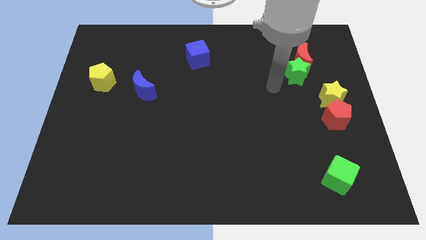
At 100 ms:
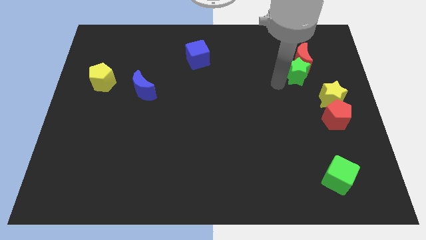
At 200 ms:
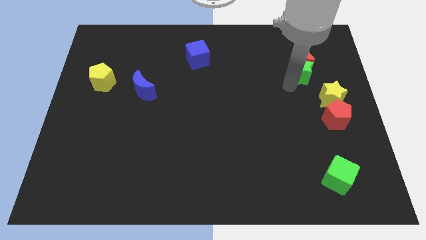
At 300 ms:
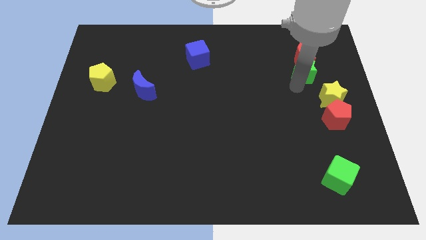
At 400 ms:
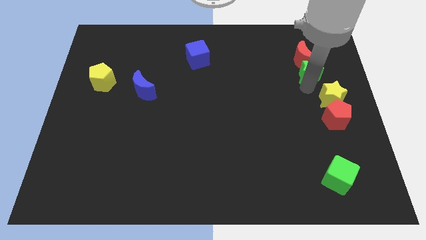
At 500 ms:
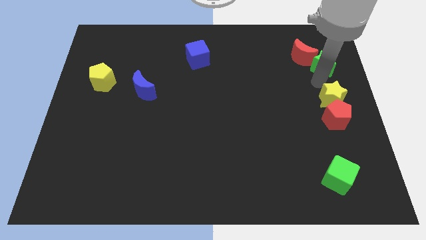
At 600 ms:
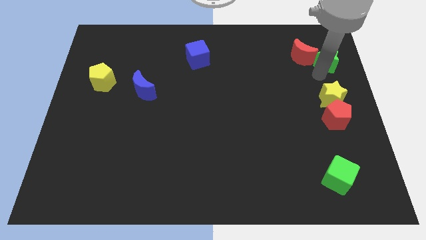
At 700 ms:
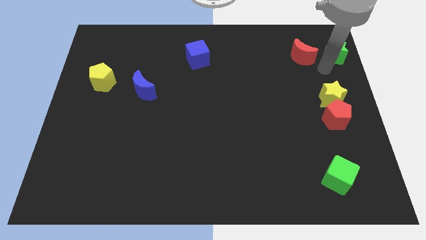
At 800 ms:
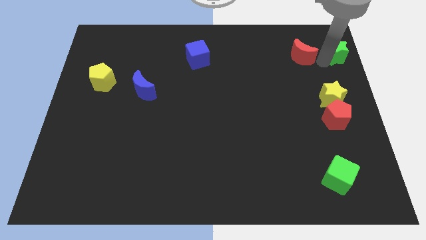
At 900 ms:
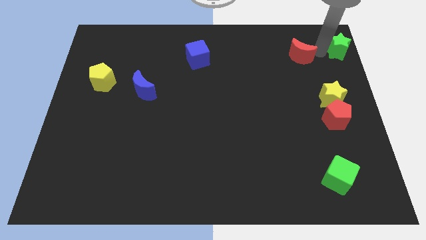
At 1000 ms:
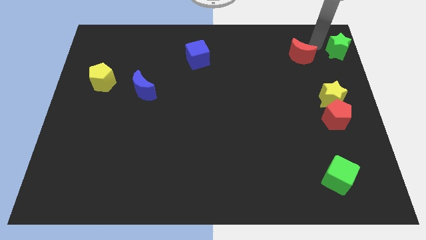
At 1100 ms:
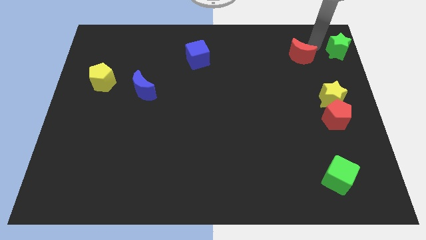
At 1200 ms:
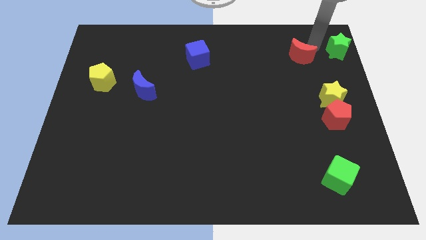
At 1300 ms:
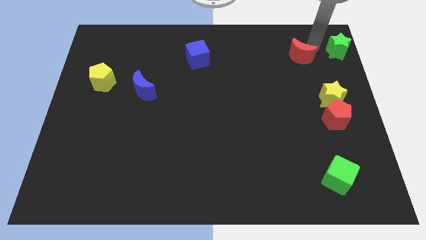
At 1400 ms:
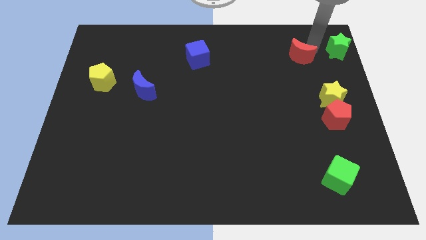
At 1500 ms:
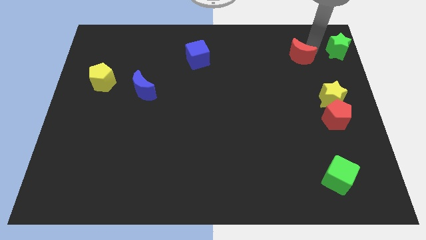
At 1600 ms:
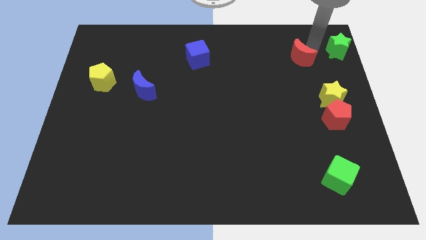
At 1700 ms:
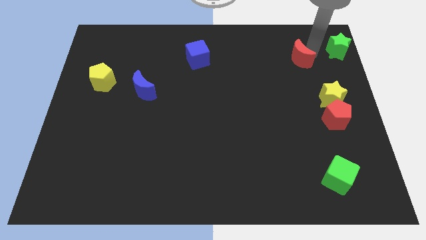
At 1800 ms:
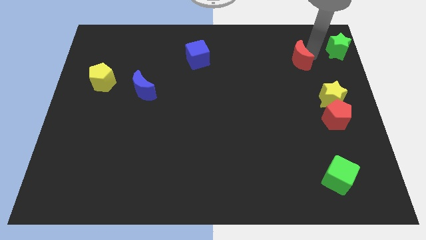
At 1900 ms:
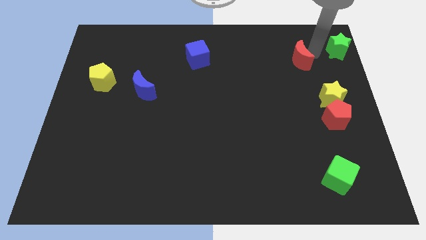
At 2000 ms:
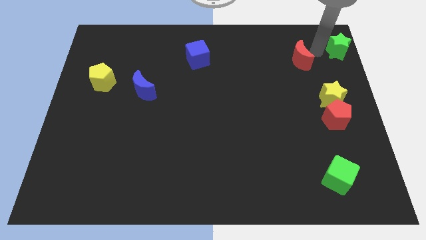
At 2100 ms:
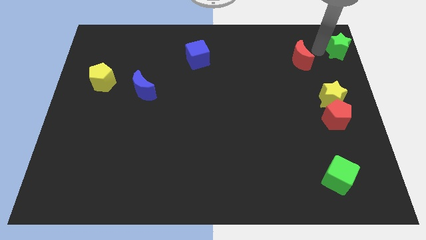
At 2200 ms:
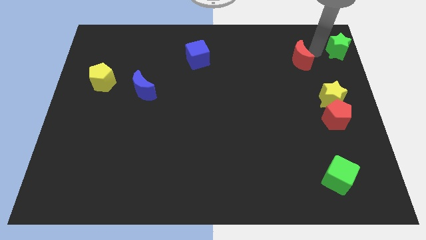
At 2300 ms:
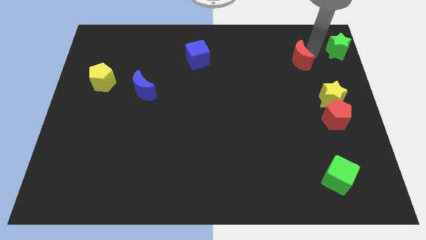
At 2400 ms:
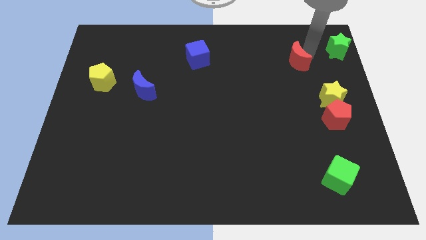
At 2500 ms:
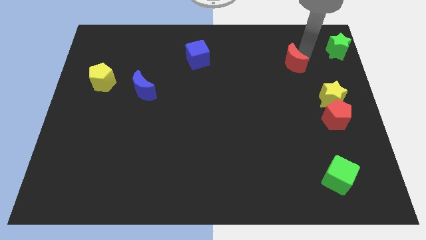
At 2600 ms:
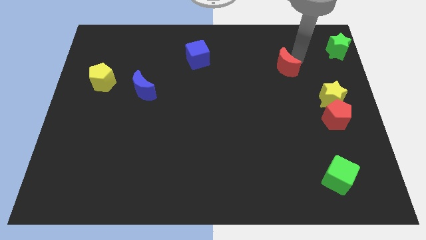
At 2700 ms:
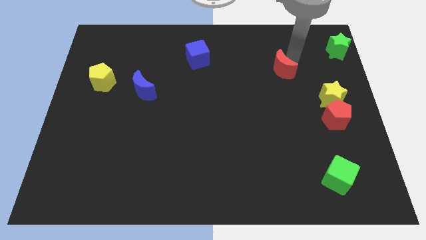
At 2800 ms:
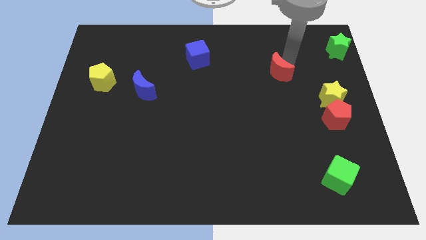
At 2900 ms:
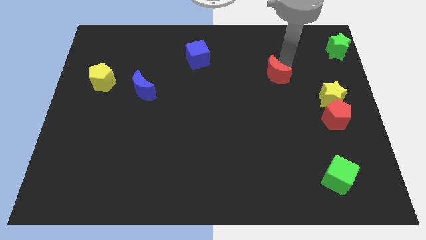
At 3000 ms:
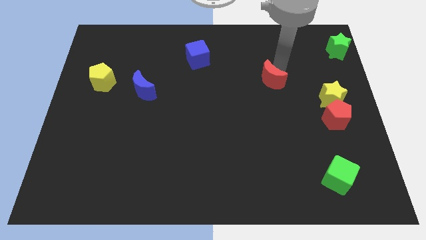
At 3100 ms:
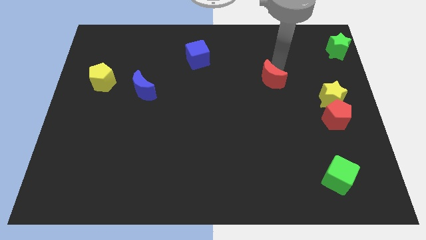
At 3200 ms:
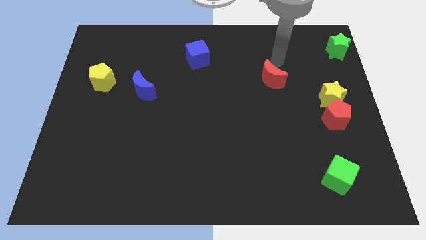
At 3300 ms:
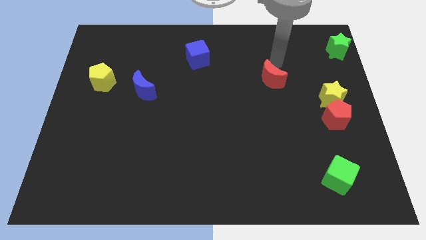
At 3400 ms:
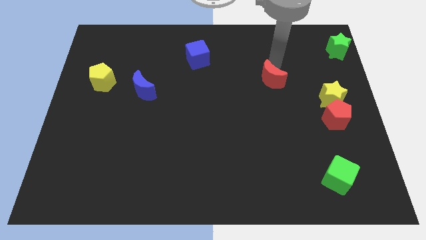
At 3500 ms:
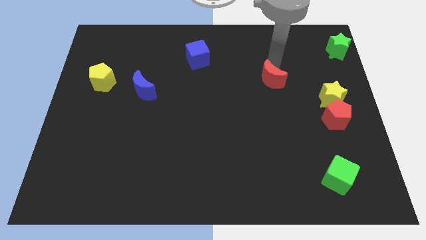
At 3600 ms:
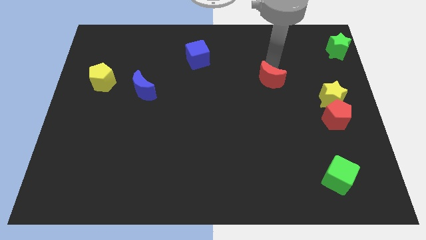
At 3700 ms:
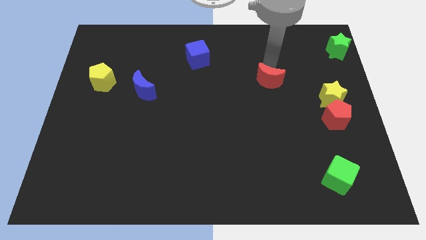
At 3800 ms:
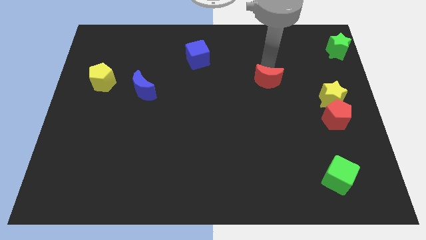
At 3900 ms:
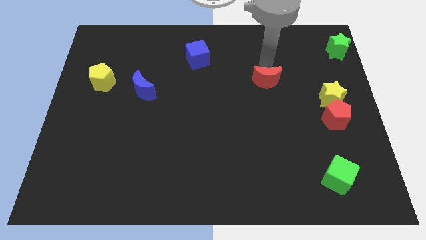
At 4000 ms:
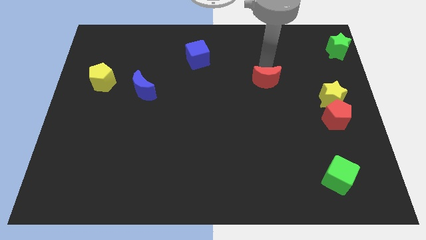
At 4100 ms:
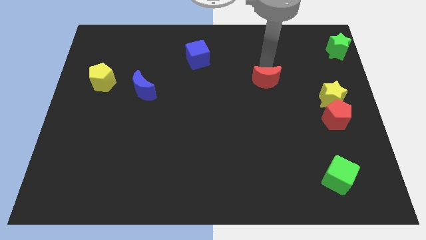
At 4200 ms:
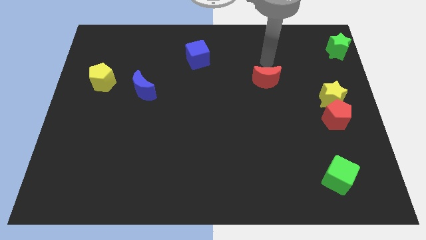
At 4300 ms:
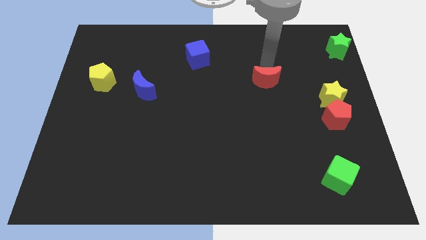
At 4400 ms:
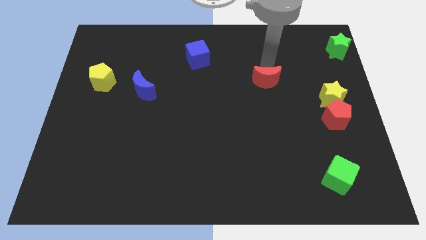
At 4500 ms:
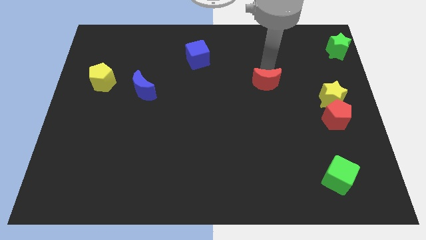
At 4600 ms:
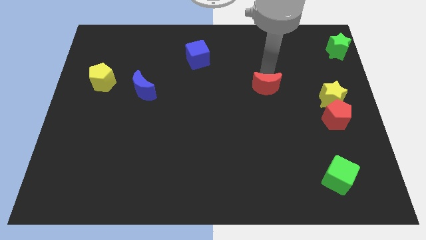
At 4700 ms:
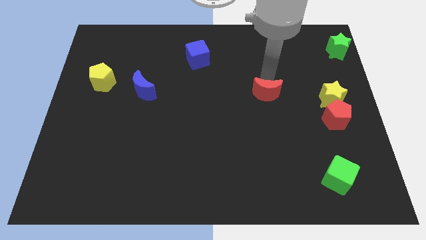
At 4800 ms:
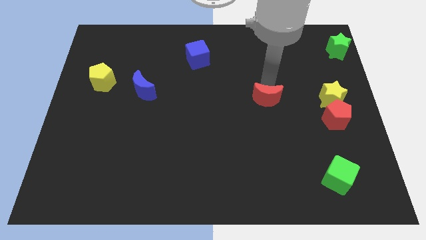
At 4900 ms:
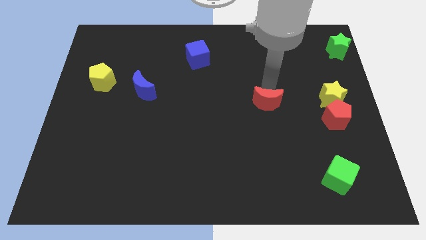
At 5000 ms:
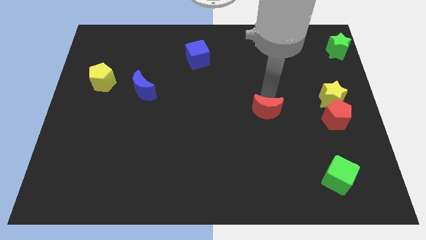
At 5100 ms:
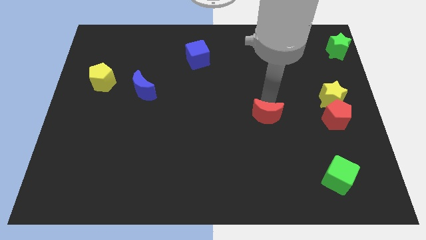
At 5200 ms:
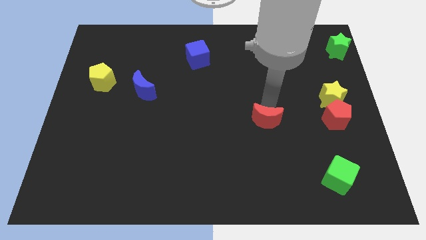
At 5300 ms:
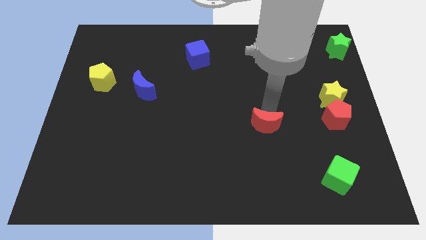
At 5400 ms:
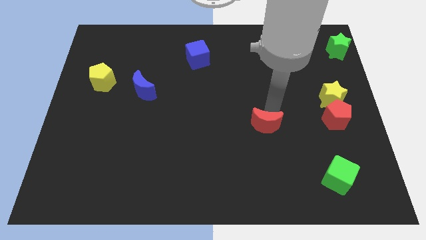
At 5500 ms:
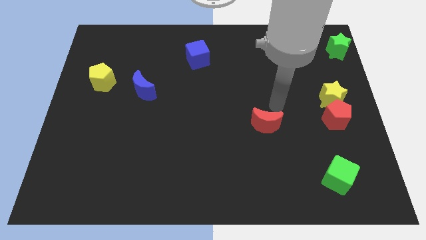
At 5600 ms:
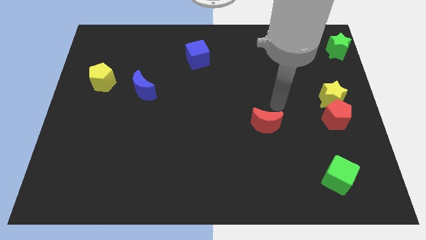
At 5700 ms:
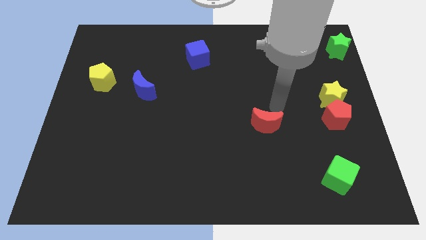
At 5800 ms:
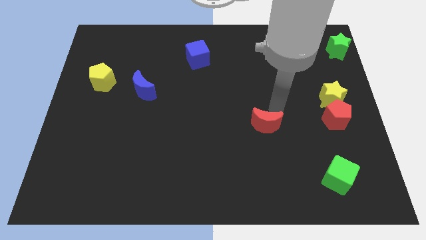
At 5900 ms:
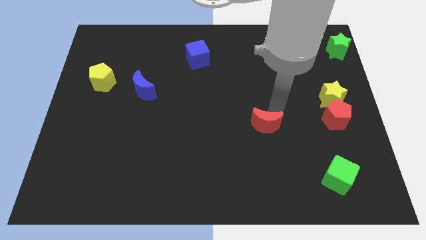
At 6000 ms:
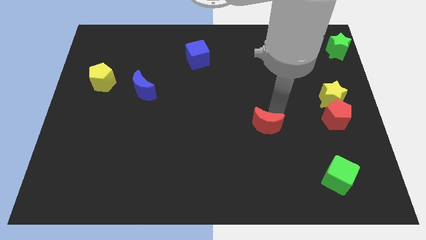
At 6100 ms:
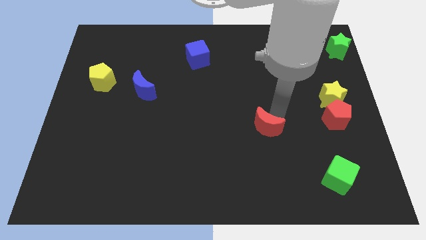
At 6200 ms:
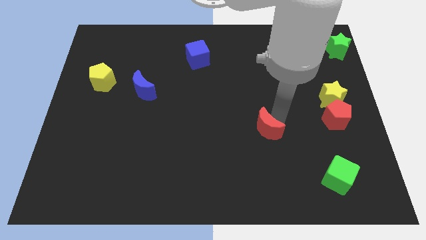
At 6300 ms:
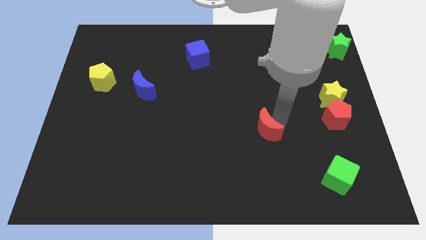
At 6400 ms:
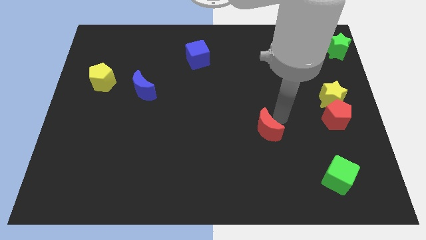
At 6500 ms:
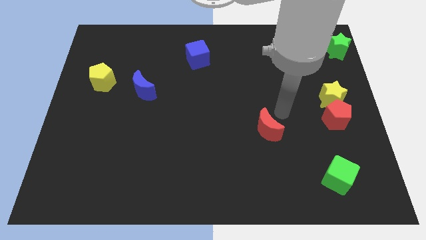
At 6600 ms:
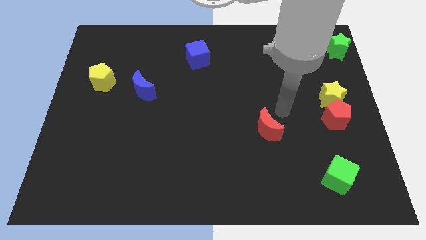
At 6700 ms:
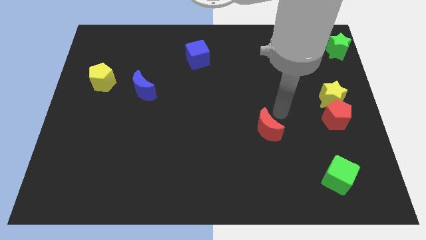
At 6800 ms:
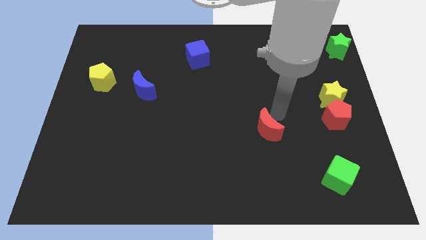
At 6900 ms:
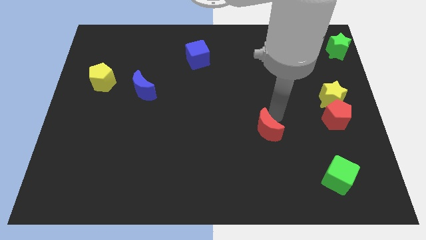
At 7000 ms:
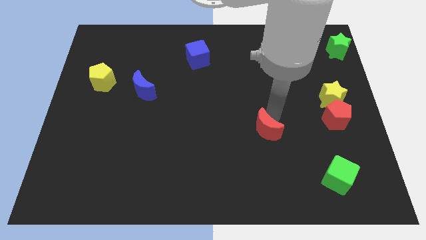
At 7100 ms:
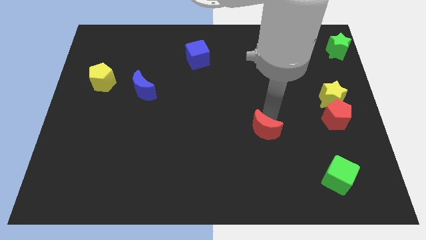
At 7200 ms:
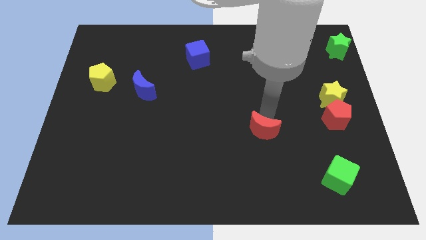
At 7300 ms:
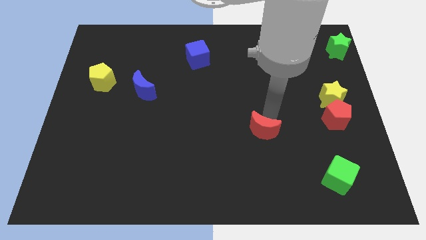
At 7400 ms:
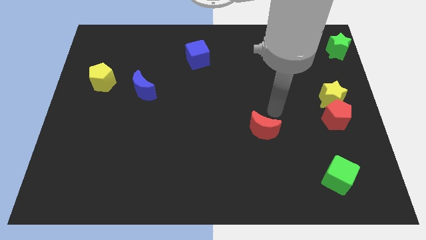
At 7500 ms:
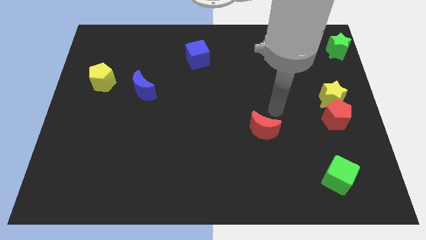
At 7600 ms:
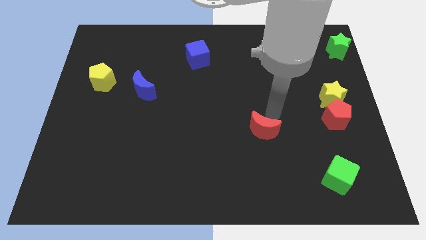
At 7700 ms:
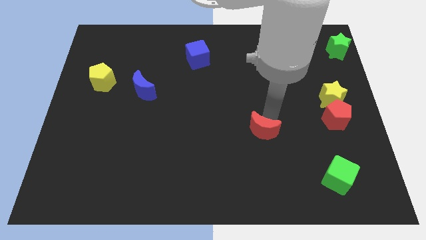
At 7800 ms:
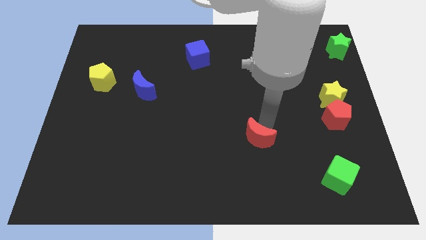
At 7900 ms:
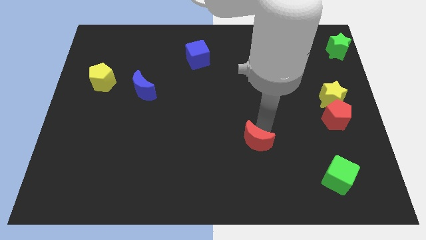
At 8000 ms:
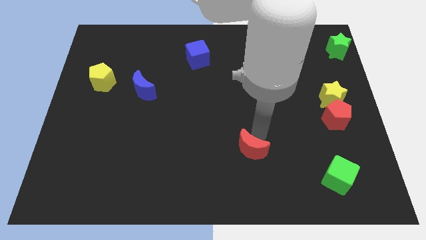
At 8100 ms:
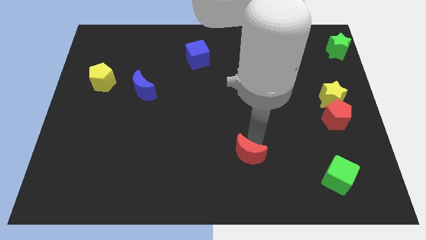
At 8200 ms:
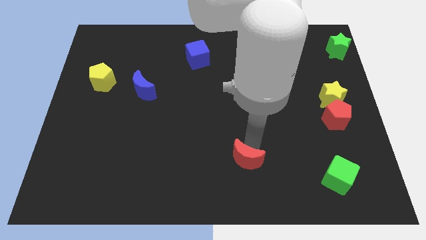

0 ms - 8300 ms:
put the red moon to the bottom side
